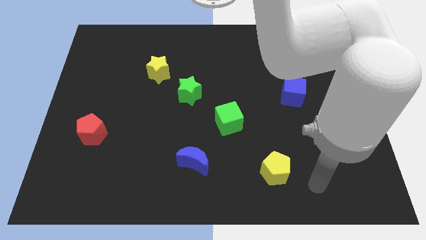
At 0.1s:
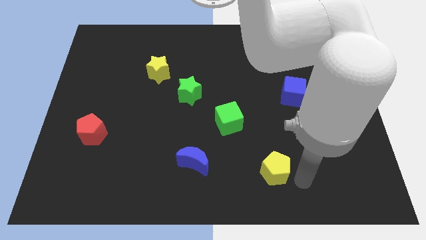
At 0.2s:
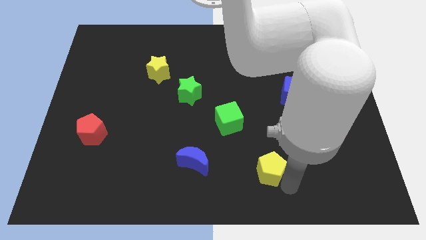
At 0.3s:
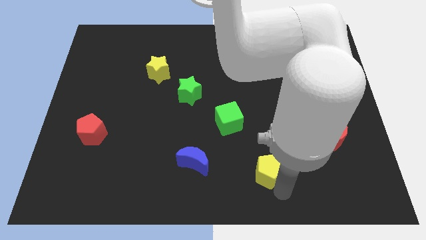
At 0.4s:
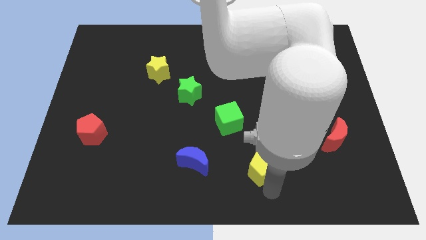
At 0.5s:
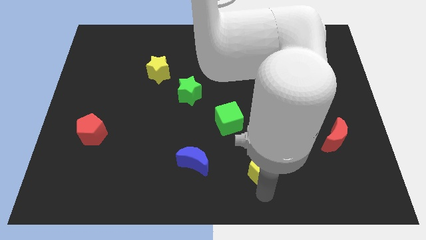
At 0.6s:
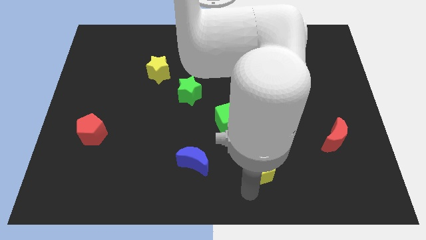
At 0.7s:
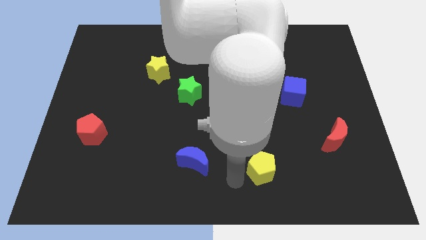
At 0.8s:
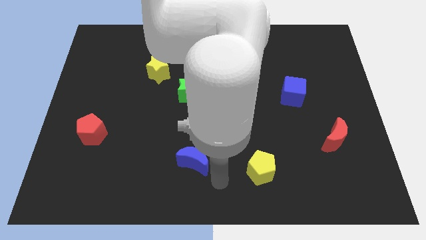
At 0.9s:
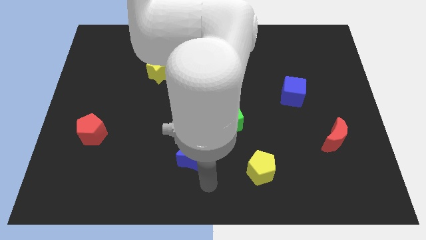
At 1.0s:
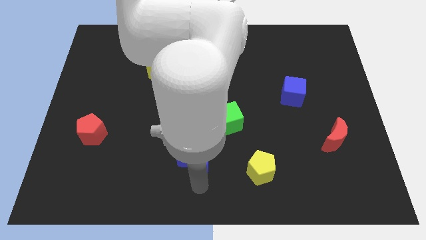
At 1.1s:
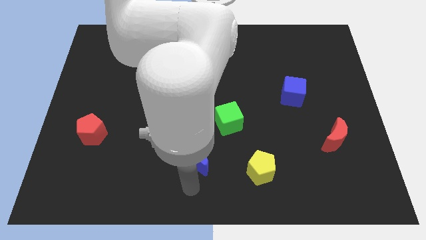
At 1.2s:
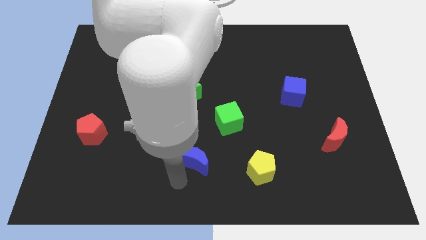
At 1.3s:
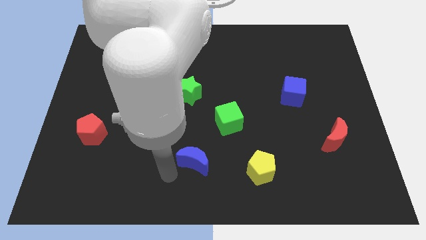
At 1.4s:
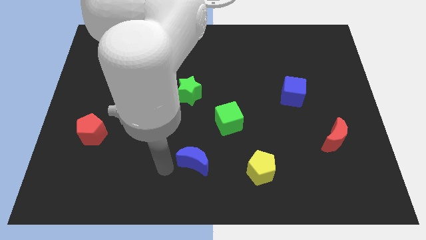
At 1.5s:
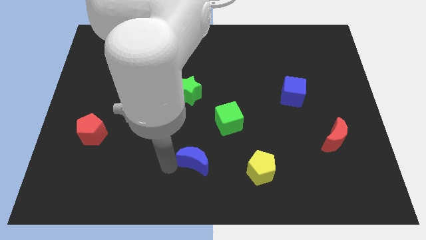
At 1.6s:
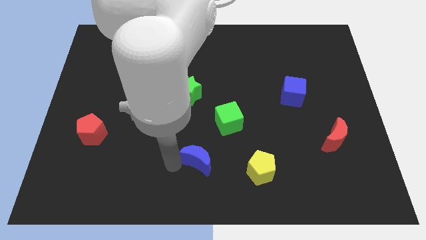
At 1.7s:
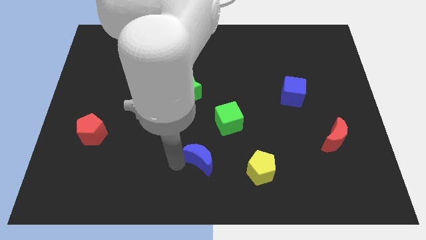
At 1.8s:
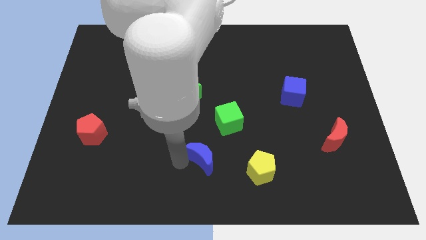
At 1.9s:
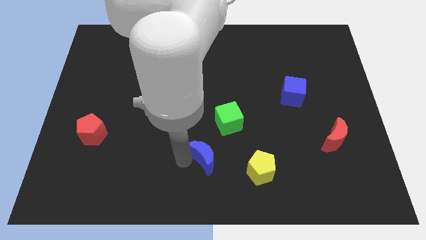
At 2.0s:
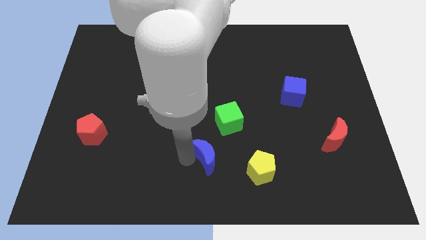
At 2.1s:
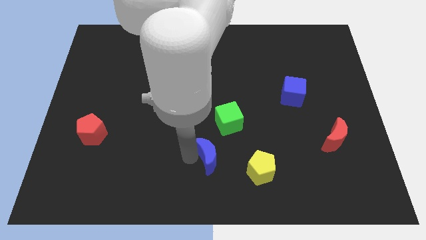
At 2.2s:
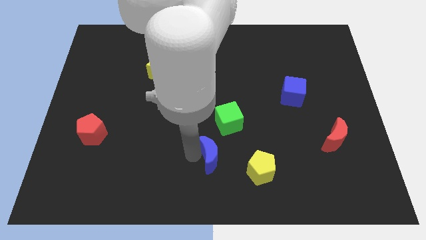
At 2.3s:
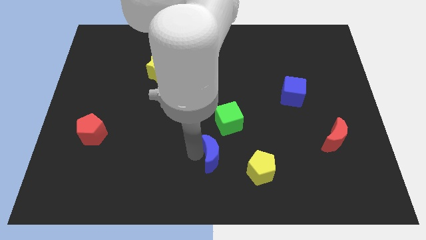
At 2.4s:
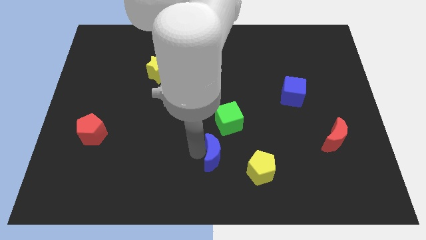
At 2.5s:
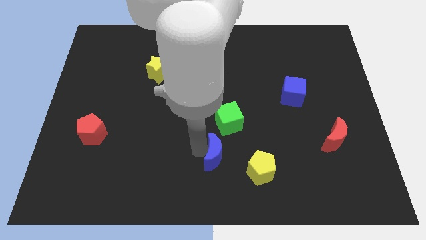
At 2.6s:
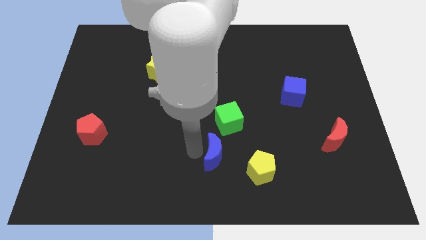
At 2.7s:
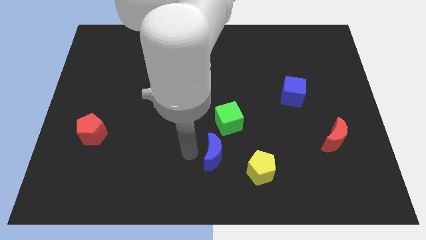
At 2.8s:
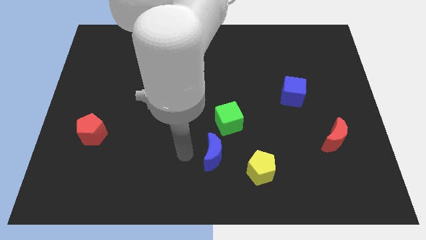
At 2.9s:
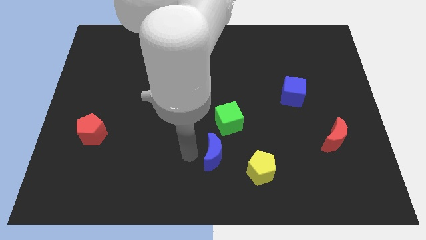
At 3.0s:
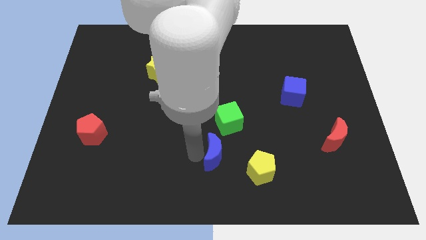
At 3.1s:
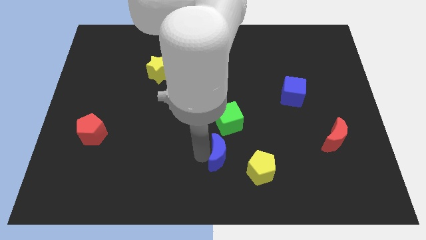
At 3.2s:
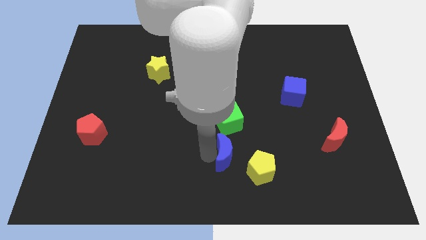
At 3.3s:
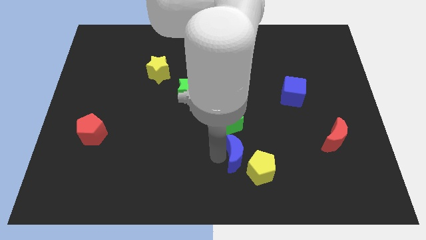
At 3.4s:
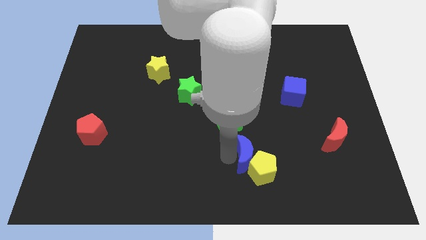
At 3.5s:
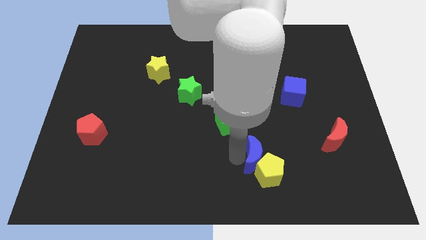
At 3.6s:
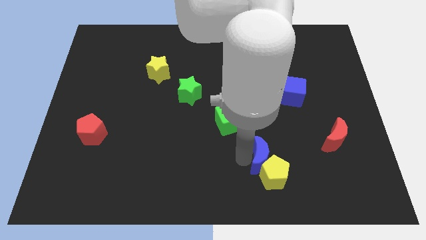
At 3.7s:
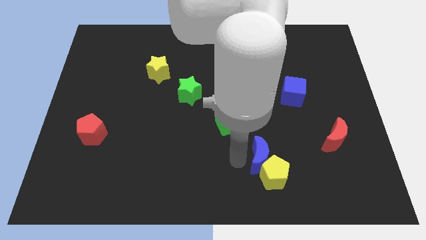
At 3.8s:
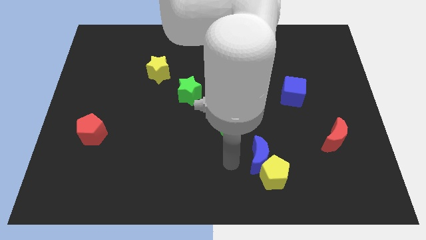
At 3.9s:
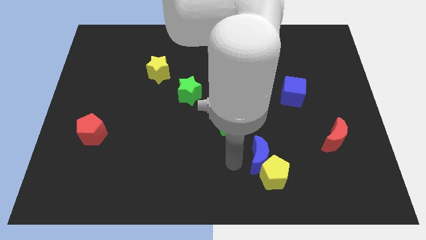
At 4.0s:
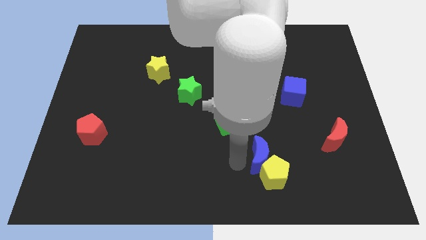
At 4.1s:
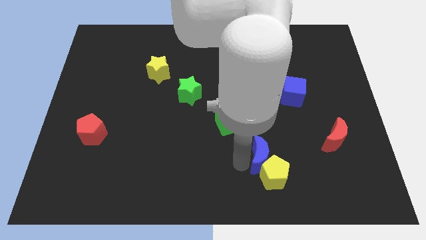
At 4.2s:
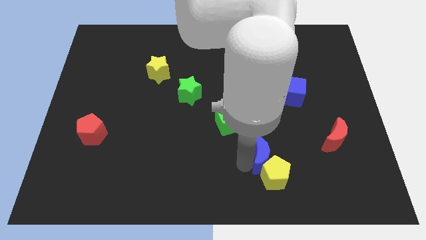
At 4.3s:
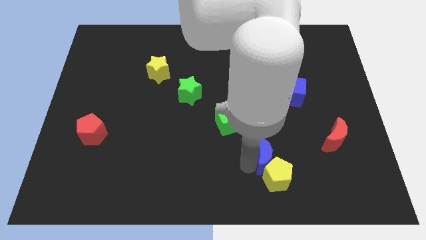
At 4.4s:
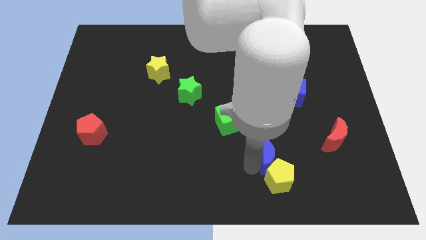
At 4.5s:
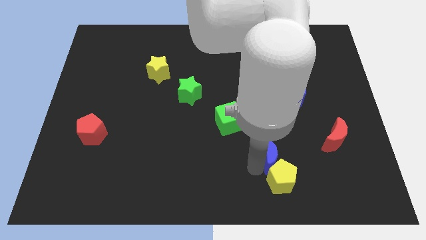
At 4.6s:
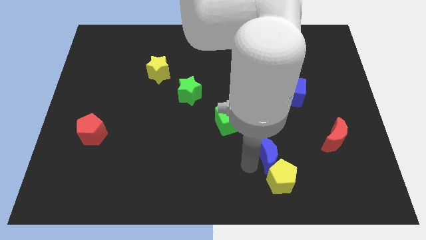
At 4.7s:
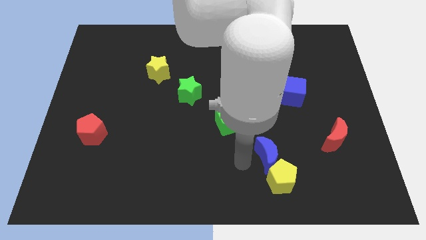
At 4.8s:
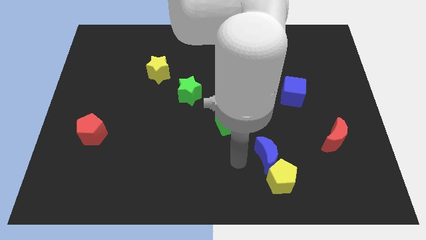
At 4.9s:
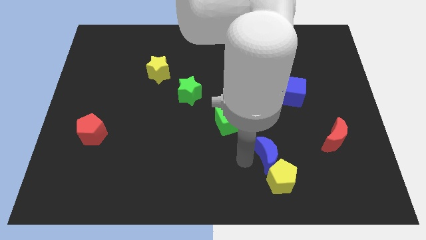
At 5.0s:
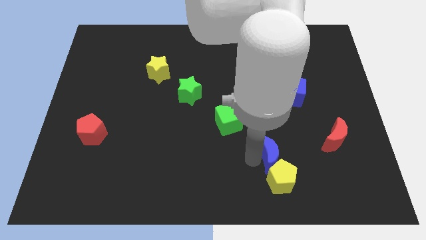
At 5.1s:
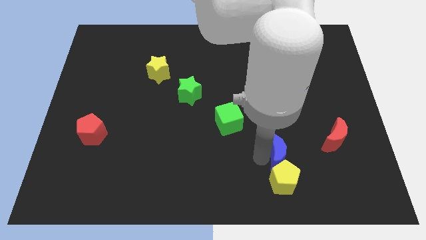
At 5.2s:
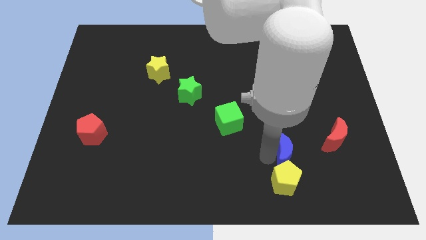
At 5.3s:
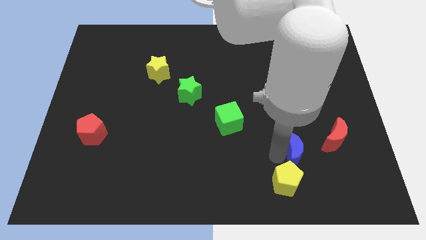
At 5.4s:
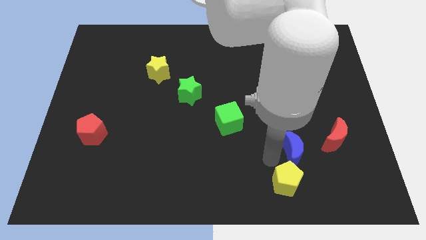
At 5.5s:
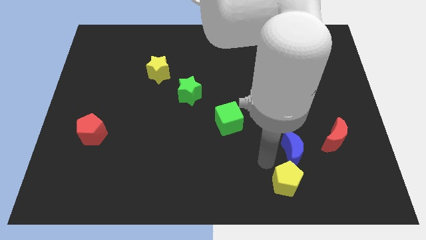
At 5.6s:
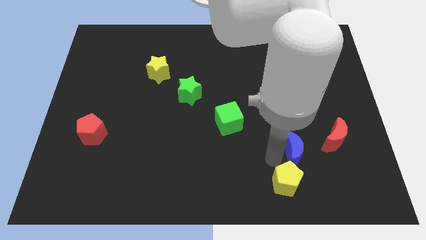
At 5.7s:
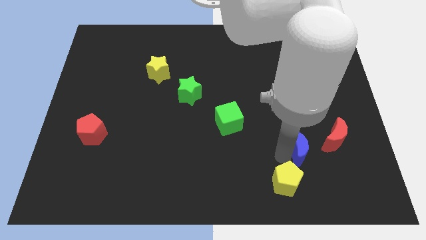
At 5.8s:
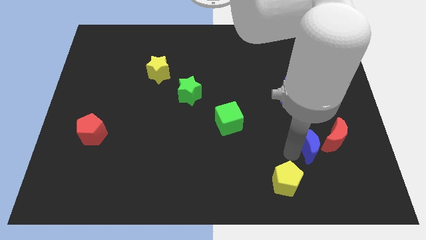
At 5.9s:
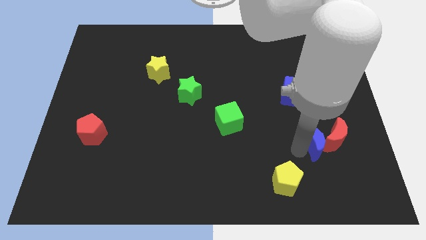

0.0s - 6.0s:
put the blue moon next to the red moon
